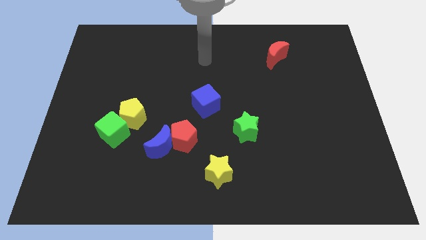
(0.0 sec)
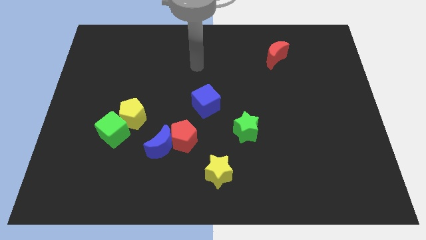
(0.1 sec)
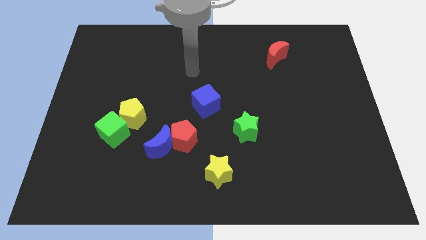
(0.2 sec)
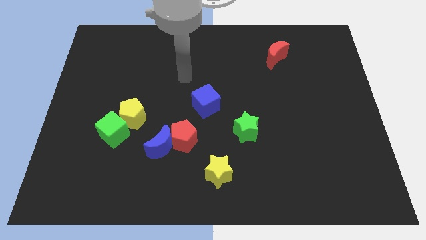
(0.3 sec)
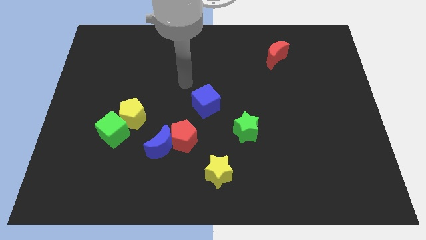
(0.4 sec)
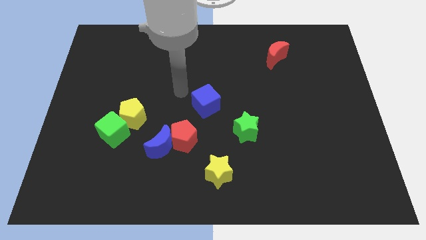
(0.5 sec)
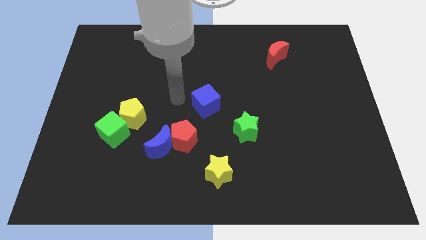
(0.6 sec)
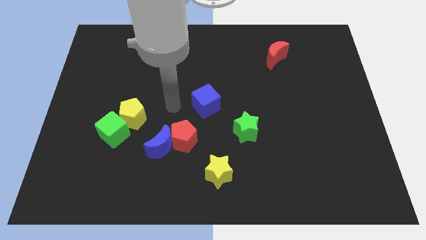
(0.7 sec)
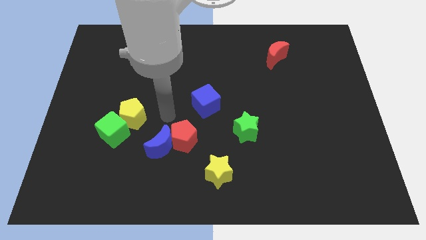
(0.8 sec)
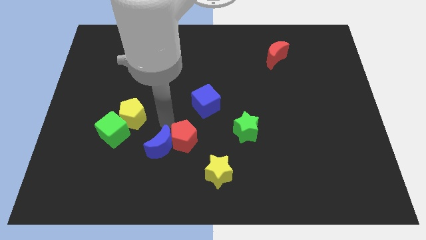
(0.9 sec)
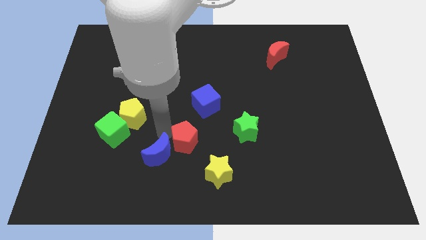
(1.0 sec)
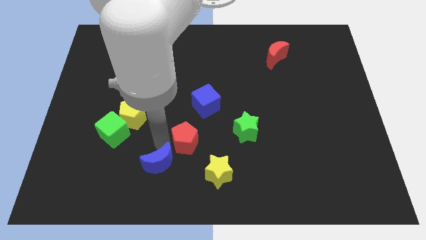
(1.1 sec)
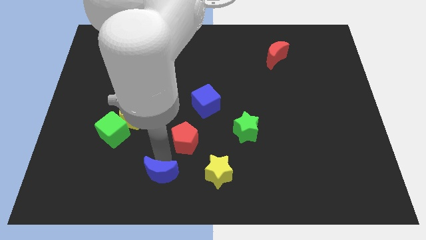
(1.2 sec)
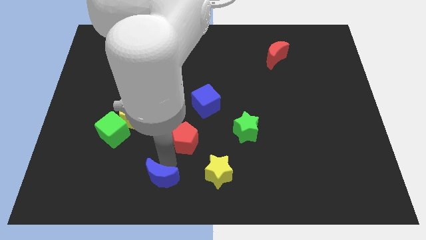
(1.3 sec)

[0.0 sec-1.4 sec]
pull the red pentagon apart from the blue moon

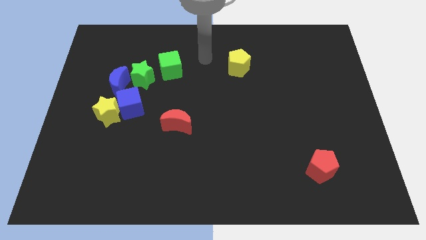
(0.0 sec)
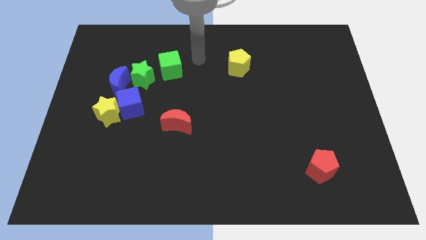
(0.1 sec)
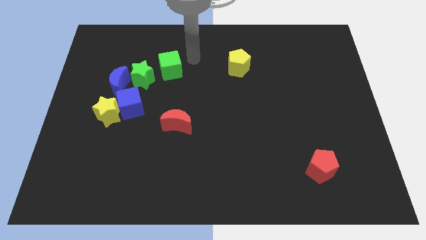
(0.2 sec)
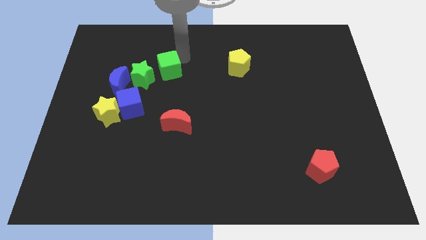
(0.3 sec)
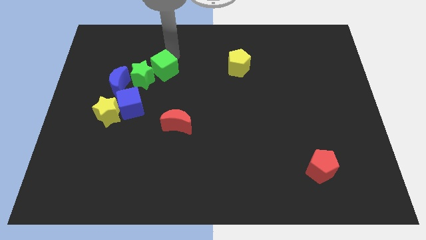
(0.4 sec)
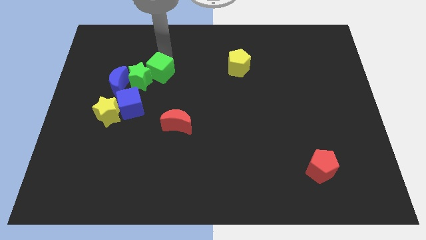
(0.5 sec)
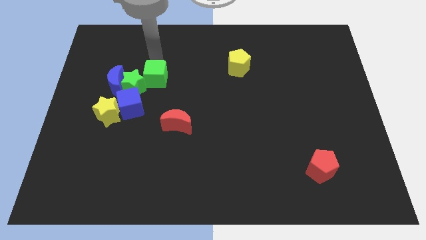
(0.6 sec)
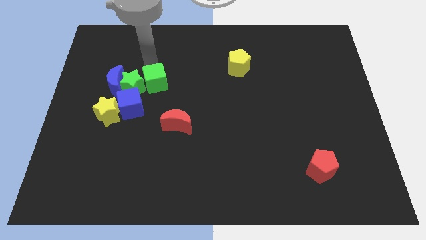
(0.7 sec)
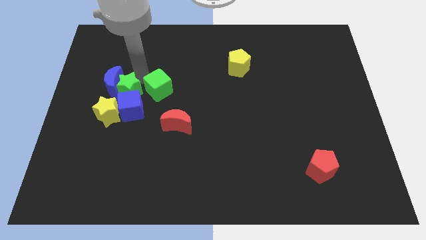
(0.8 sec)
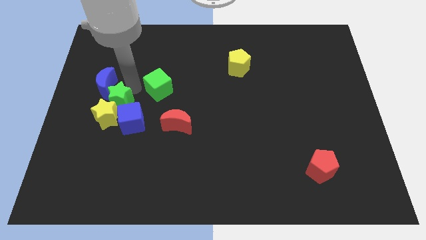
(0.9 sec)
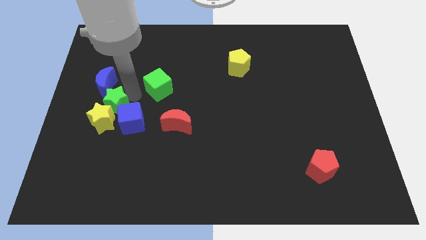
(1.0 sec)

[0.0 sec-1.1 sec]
move the green cube away from the green star

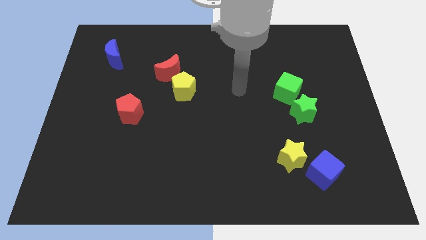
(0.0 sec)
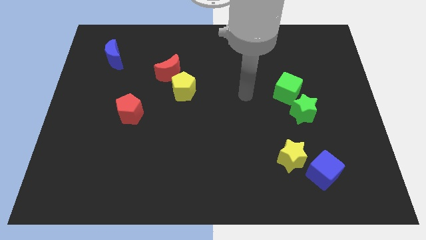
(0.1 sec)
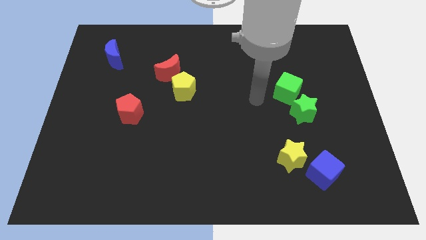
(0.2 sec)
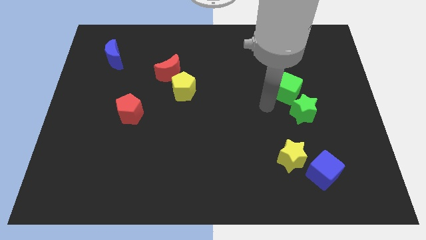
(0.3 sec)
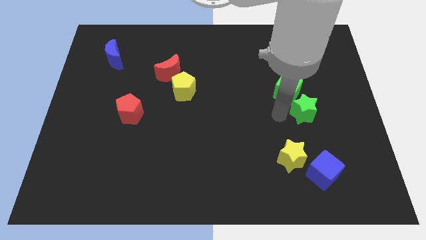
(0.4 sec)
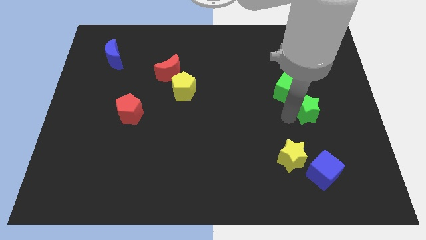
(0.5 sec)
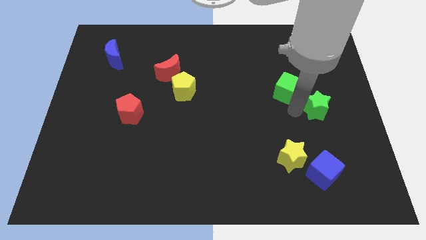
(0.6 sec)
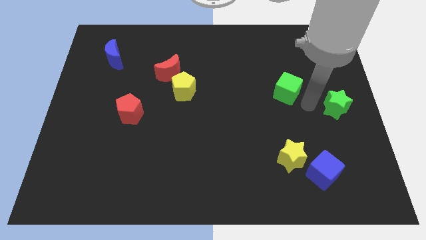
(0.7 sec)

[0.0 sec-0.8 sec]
separate the green cube from the green star

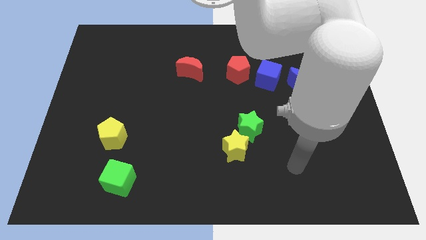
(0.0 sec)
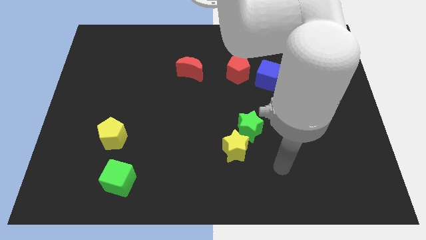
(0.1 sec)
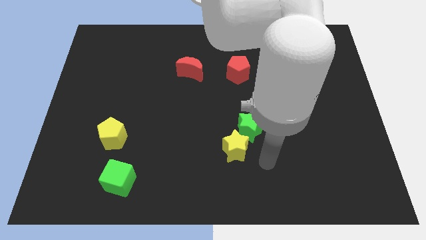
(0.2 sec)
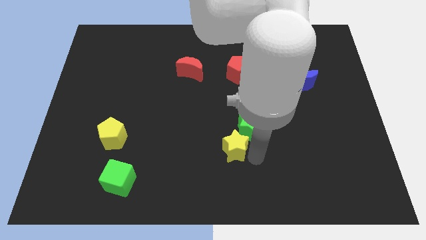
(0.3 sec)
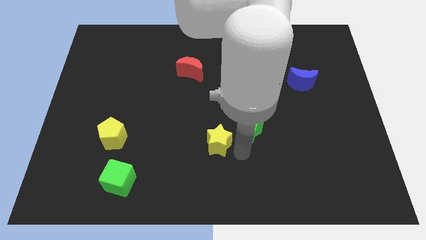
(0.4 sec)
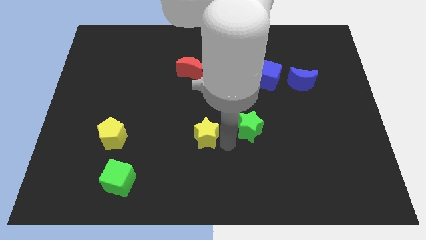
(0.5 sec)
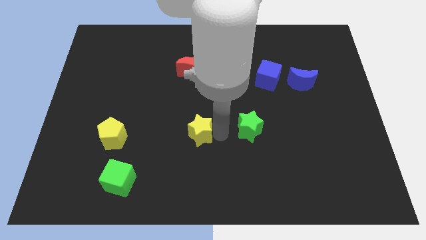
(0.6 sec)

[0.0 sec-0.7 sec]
separate the green star from the yellow star

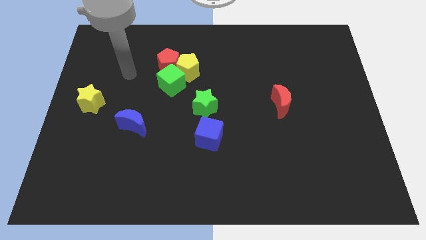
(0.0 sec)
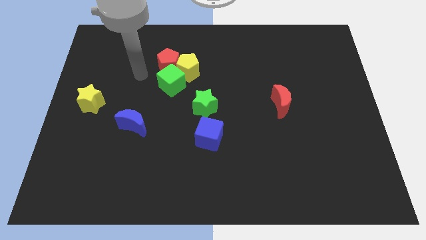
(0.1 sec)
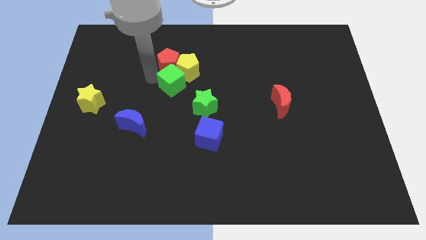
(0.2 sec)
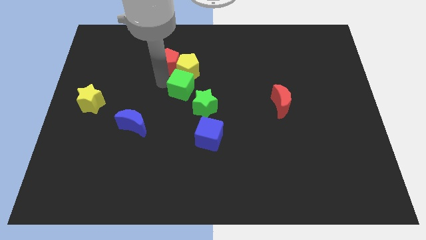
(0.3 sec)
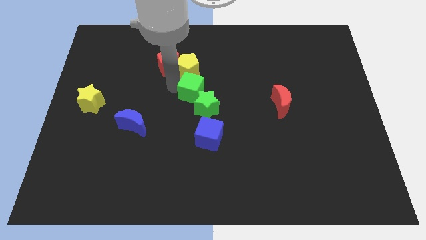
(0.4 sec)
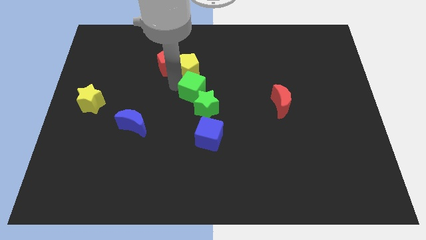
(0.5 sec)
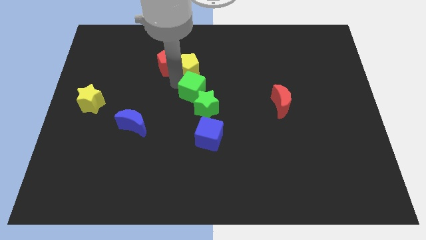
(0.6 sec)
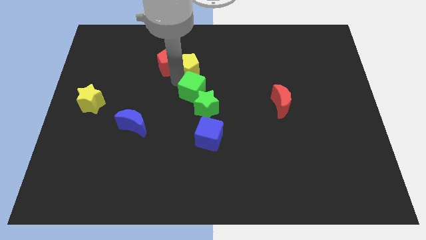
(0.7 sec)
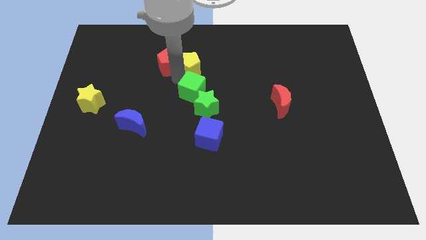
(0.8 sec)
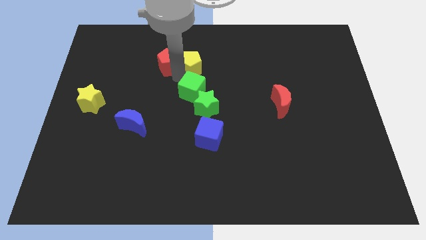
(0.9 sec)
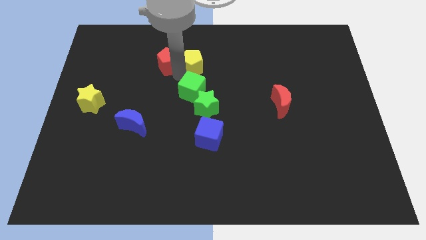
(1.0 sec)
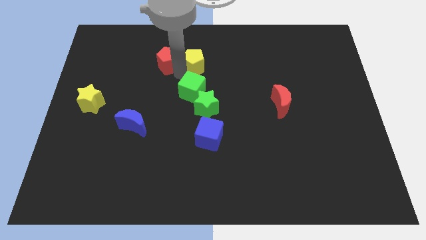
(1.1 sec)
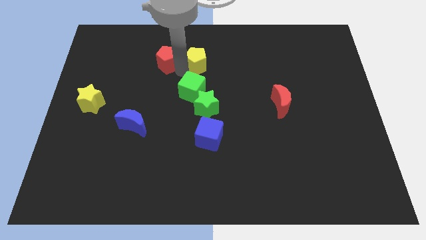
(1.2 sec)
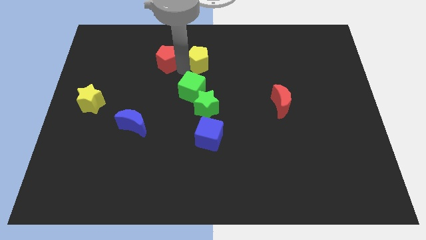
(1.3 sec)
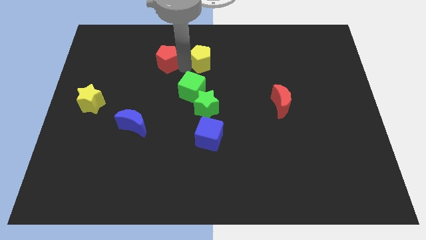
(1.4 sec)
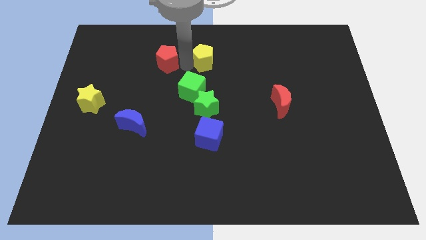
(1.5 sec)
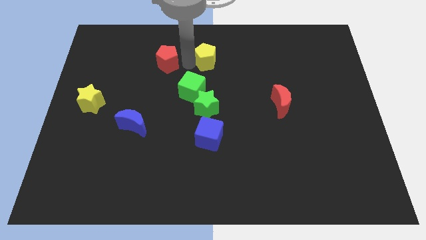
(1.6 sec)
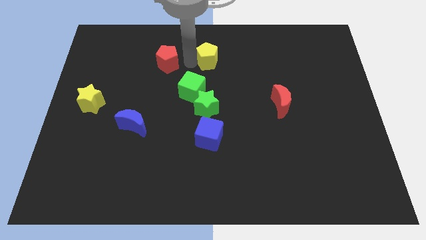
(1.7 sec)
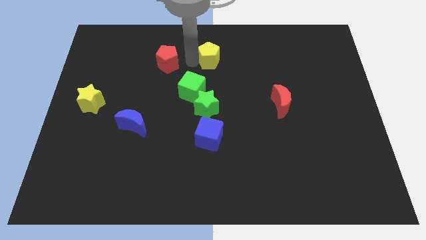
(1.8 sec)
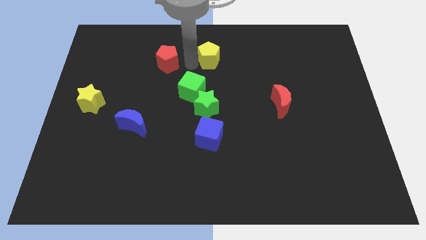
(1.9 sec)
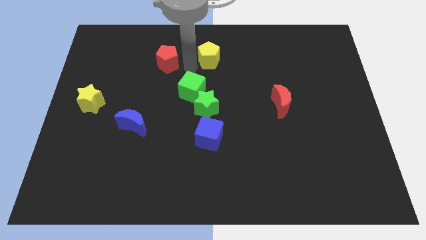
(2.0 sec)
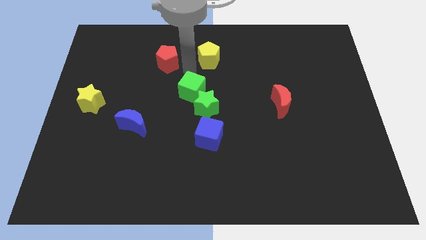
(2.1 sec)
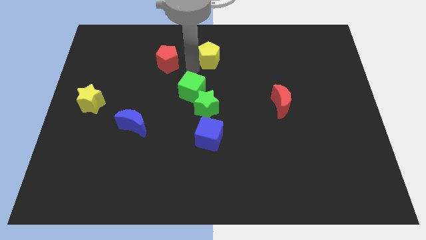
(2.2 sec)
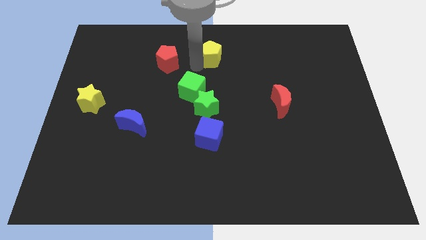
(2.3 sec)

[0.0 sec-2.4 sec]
move the yellow pentagon away from the red pentagon and green cube

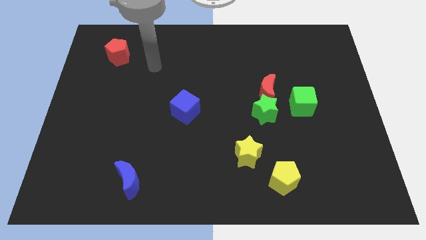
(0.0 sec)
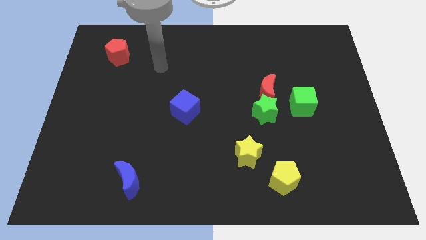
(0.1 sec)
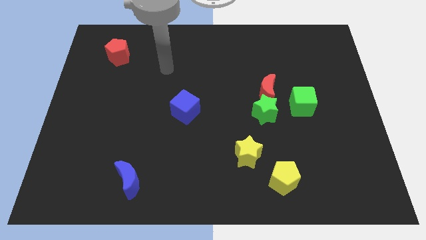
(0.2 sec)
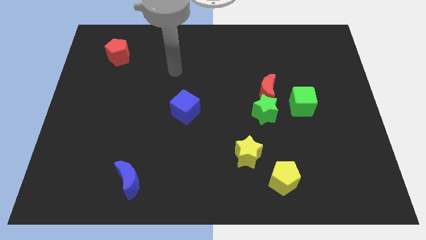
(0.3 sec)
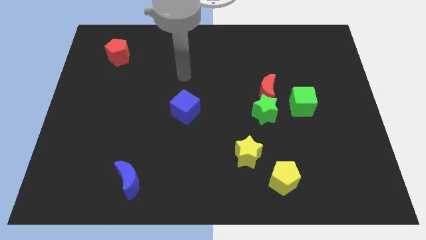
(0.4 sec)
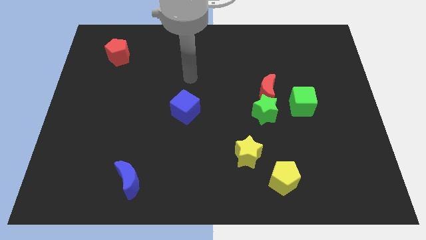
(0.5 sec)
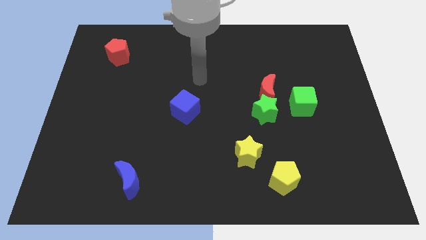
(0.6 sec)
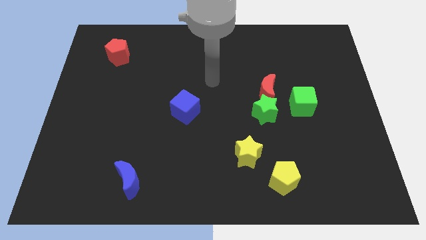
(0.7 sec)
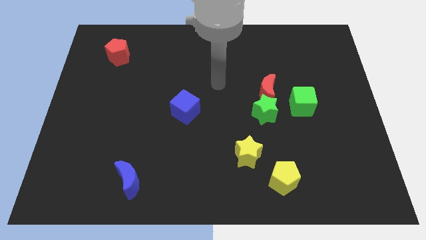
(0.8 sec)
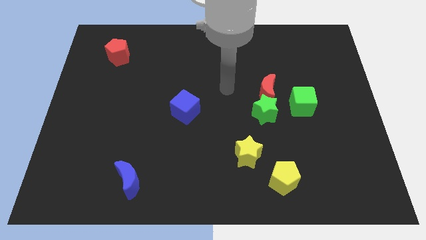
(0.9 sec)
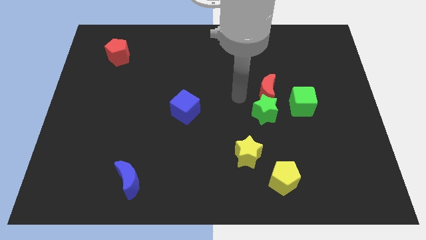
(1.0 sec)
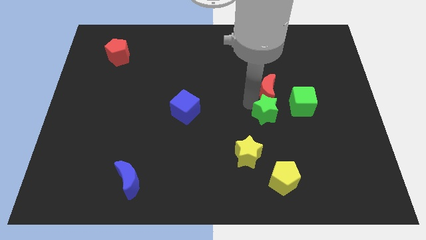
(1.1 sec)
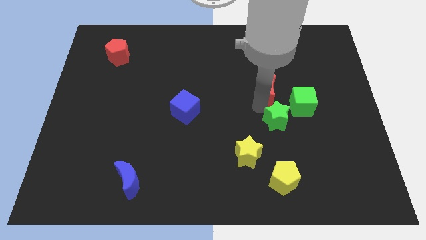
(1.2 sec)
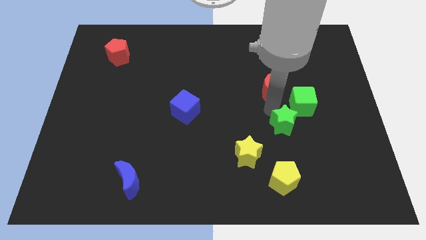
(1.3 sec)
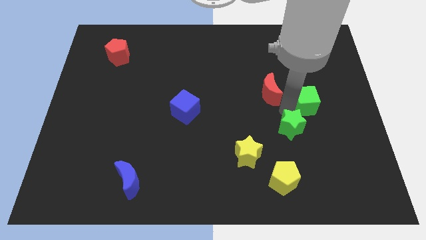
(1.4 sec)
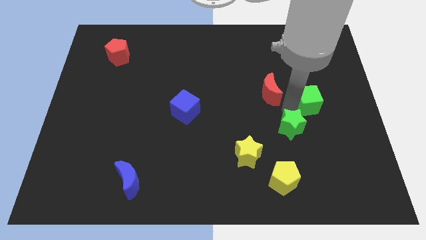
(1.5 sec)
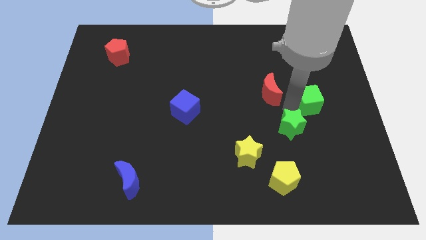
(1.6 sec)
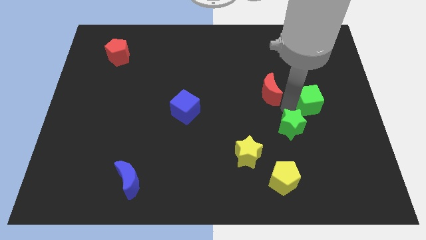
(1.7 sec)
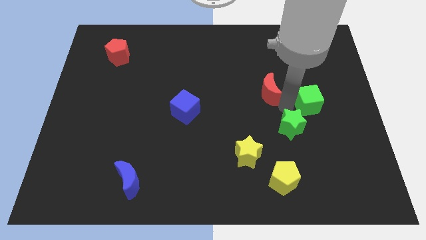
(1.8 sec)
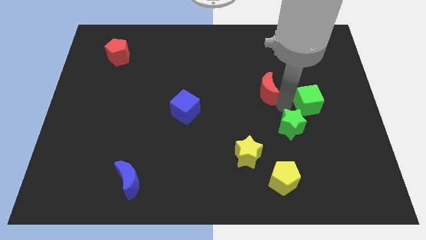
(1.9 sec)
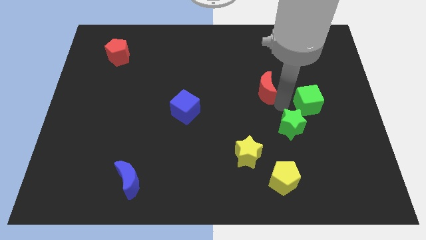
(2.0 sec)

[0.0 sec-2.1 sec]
pull the red moon apart from the green star and green cube

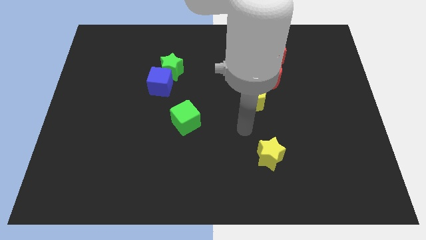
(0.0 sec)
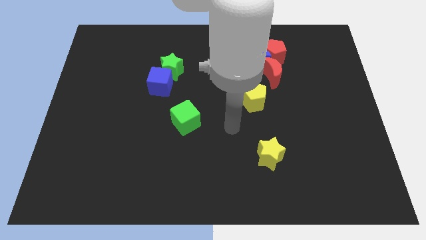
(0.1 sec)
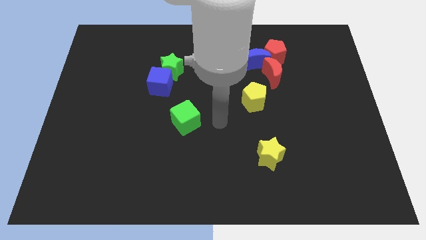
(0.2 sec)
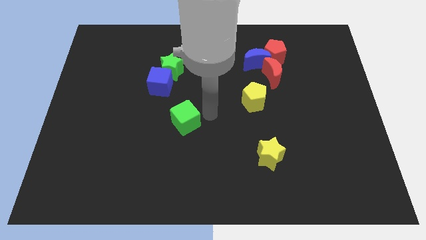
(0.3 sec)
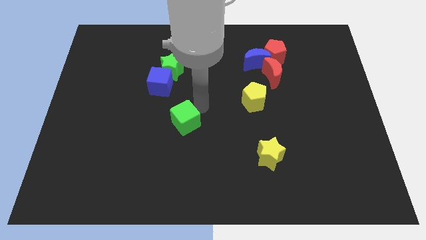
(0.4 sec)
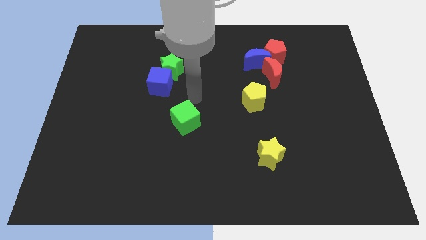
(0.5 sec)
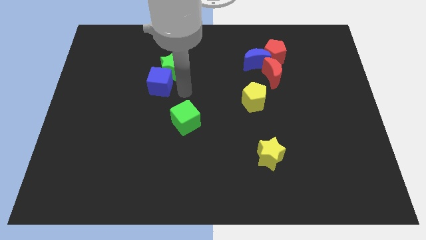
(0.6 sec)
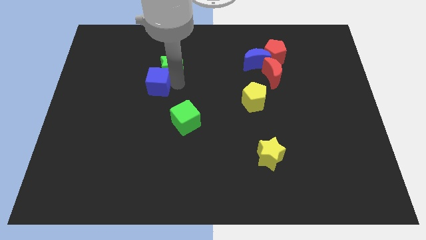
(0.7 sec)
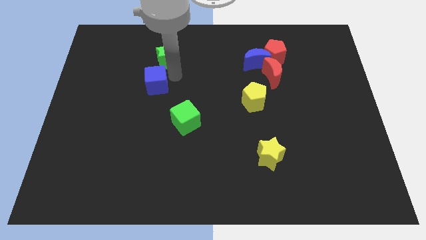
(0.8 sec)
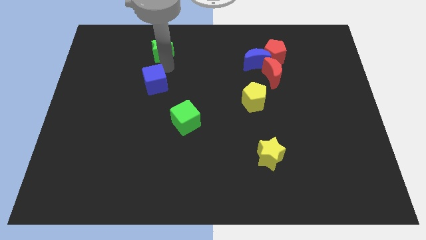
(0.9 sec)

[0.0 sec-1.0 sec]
pull the blue cube apart from the green star
